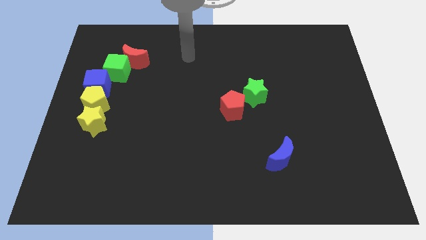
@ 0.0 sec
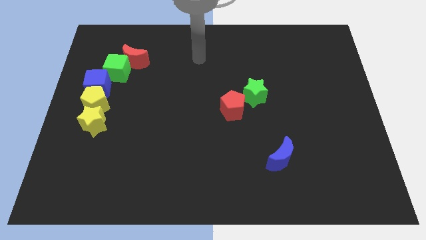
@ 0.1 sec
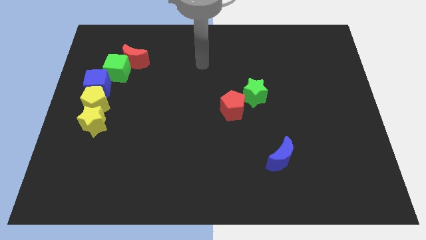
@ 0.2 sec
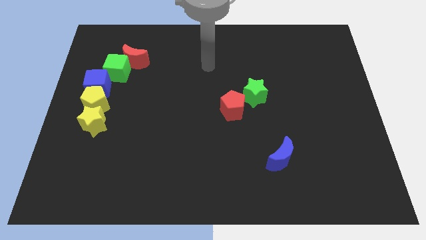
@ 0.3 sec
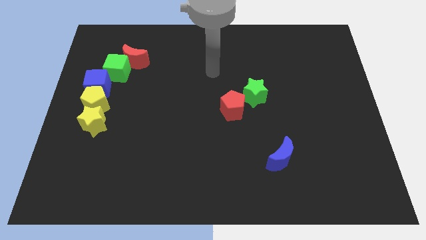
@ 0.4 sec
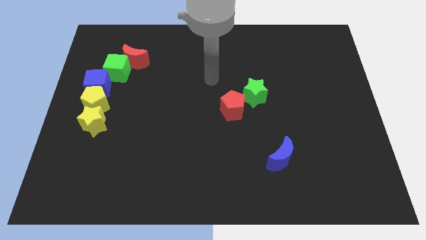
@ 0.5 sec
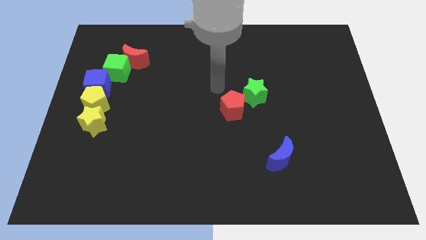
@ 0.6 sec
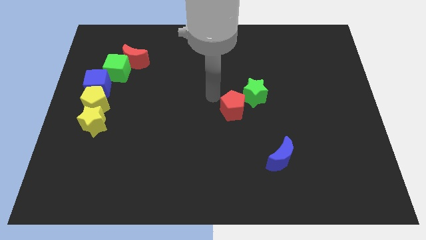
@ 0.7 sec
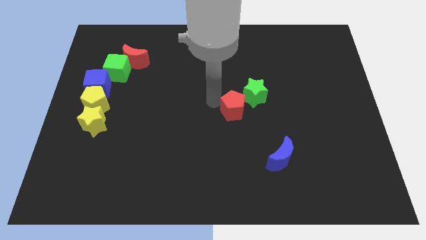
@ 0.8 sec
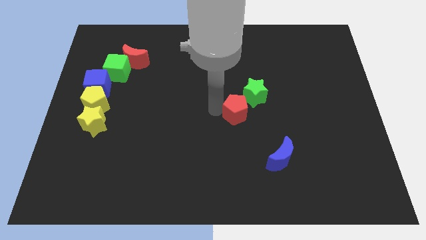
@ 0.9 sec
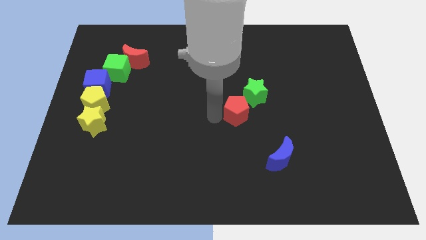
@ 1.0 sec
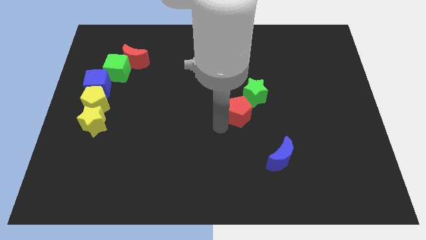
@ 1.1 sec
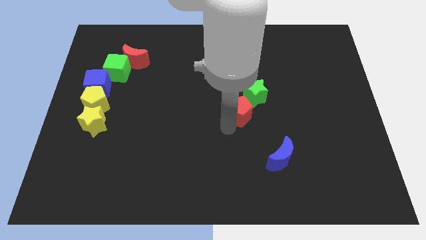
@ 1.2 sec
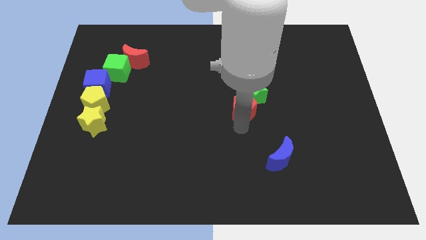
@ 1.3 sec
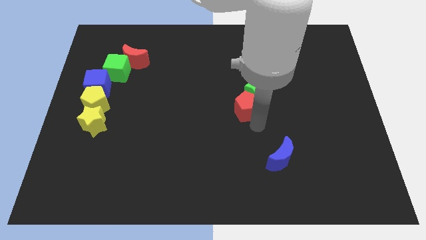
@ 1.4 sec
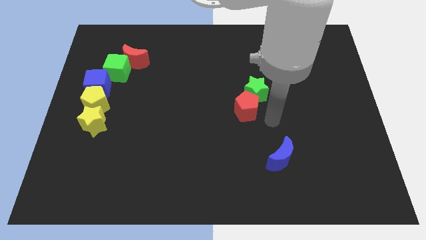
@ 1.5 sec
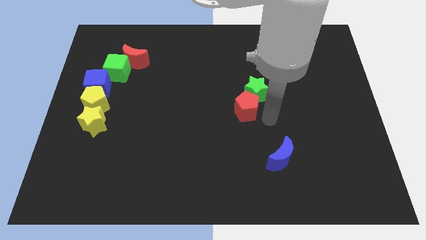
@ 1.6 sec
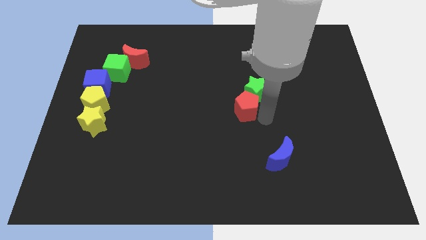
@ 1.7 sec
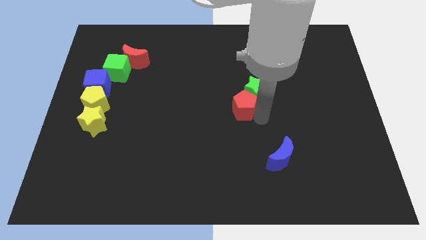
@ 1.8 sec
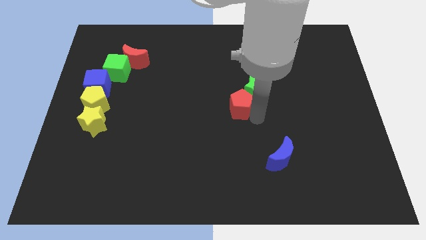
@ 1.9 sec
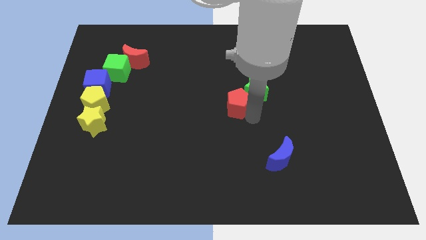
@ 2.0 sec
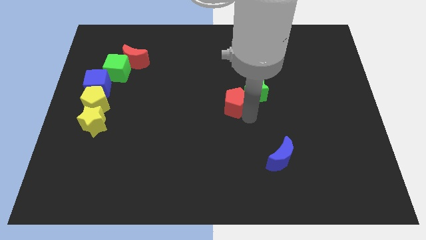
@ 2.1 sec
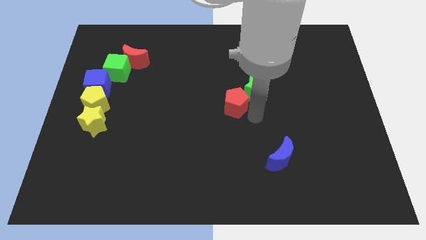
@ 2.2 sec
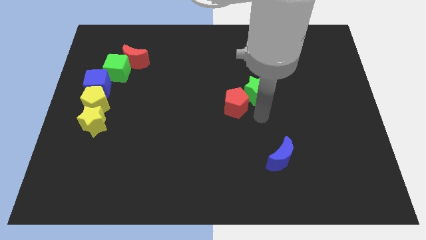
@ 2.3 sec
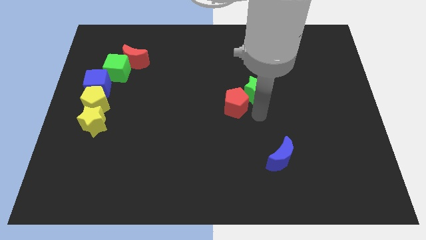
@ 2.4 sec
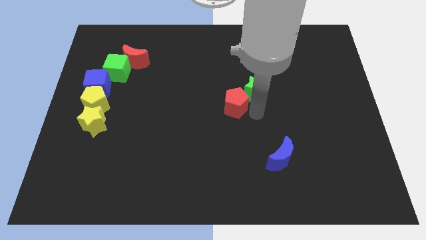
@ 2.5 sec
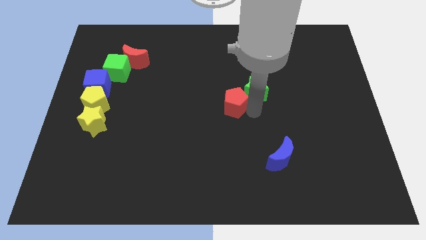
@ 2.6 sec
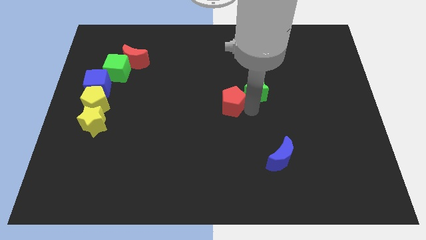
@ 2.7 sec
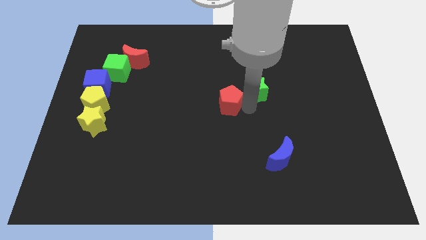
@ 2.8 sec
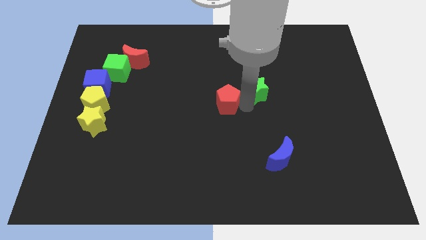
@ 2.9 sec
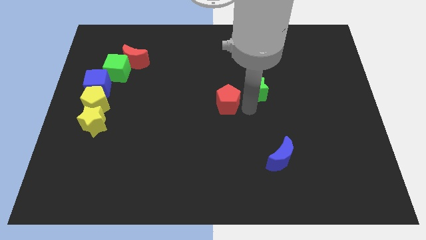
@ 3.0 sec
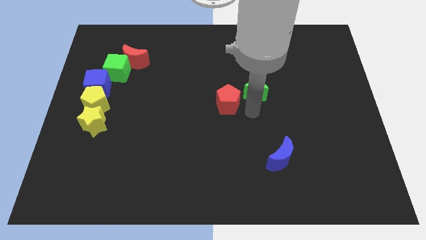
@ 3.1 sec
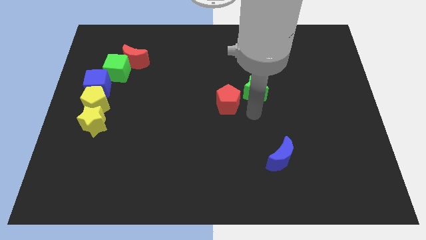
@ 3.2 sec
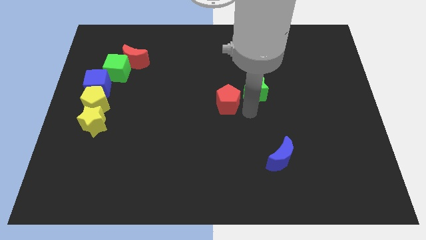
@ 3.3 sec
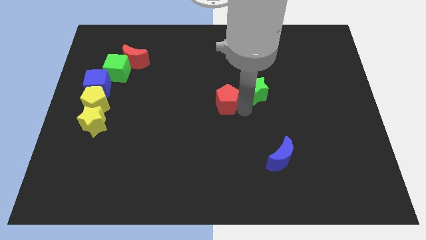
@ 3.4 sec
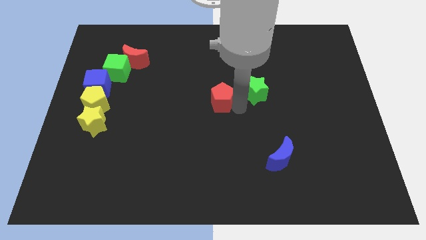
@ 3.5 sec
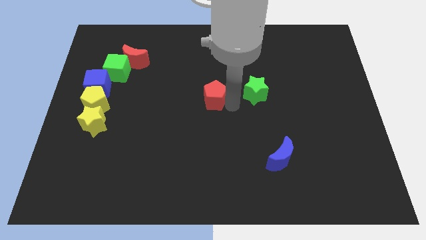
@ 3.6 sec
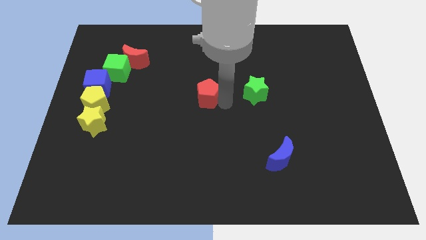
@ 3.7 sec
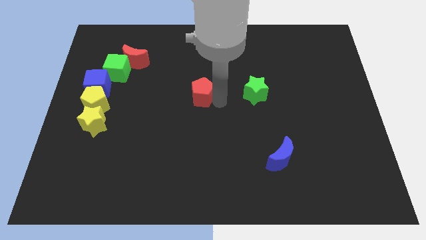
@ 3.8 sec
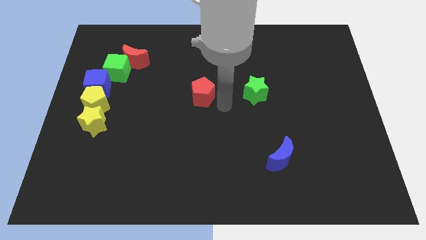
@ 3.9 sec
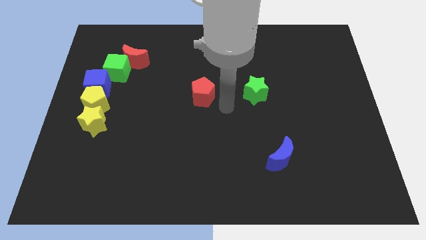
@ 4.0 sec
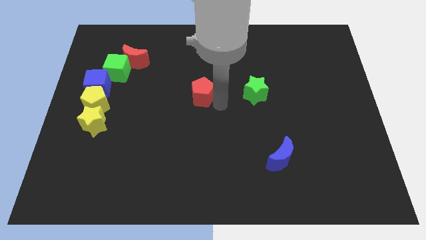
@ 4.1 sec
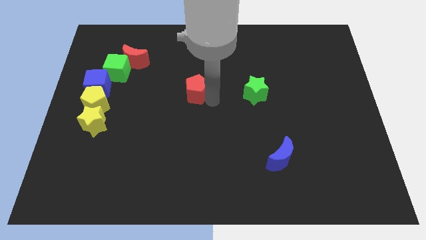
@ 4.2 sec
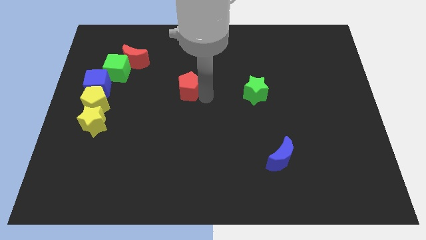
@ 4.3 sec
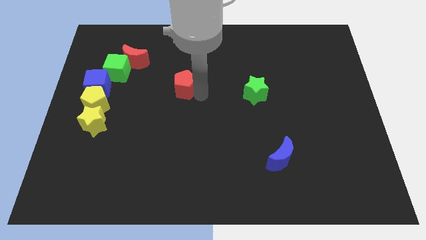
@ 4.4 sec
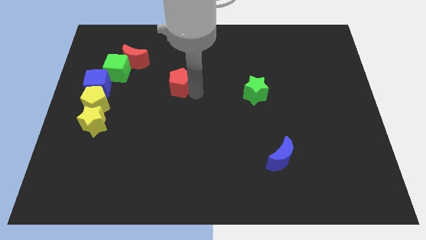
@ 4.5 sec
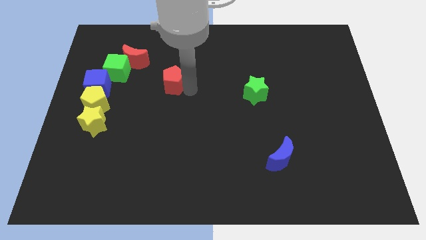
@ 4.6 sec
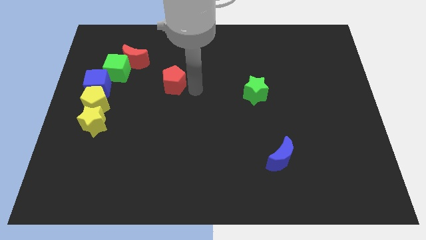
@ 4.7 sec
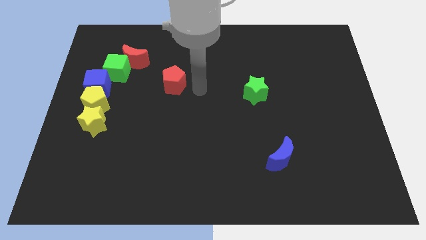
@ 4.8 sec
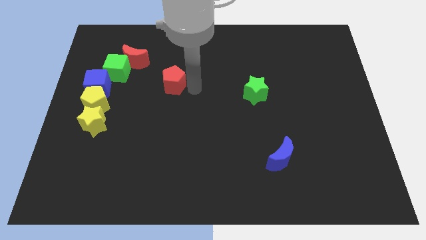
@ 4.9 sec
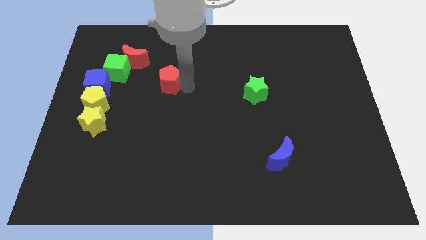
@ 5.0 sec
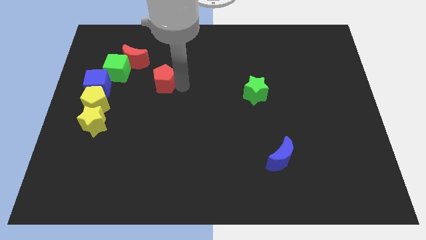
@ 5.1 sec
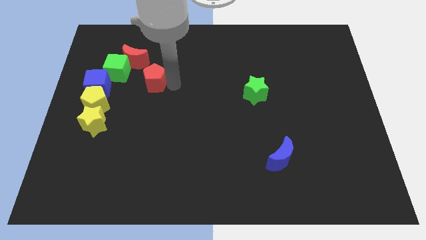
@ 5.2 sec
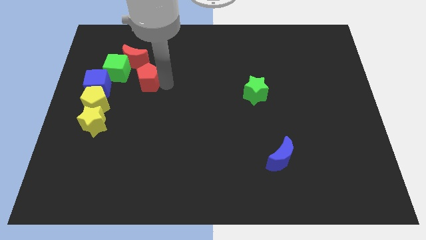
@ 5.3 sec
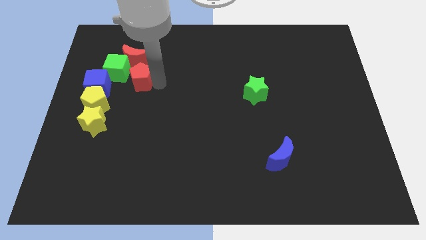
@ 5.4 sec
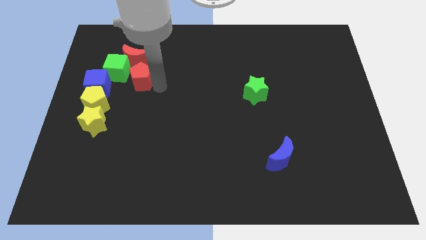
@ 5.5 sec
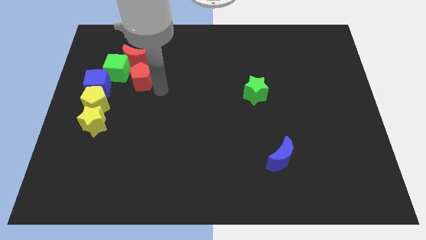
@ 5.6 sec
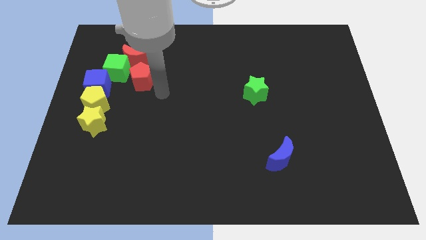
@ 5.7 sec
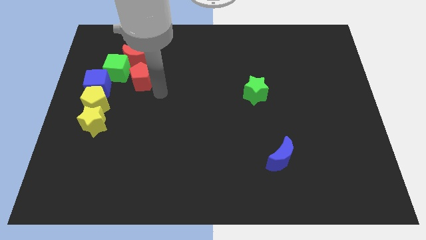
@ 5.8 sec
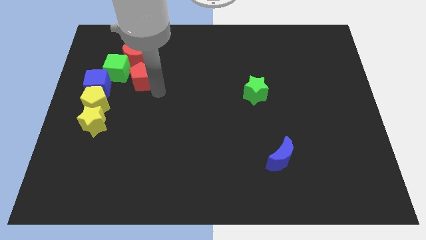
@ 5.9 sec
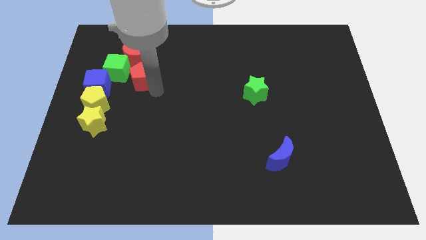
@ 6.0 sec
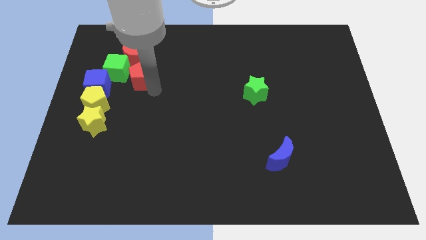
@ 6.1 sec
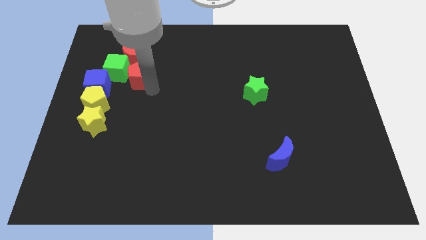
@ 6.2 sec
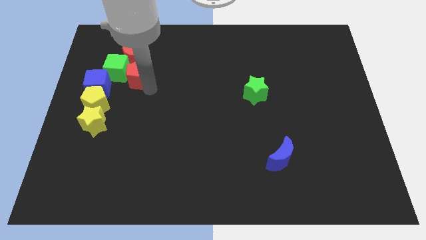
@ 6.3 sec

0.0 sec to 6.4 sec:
slide the red pentagon next to the green cube

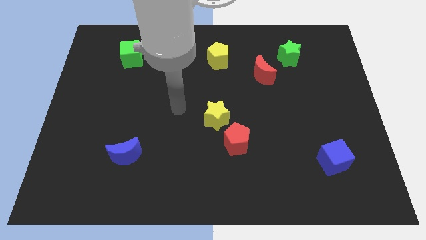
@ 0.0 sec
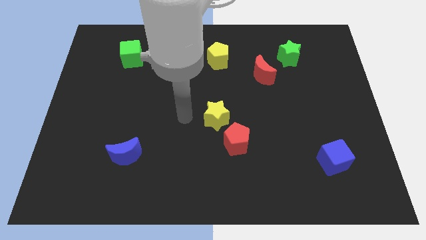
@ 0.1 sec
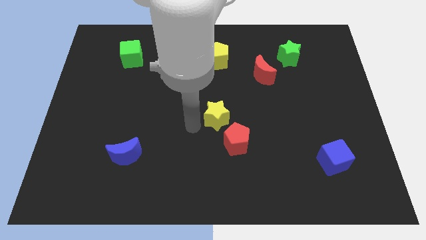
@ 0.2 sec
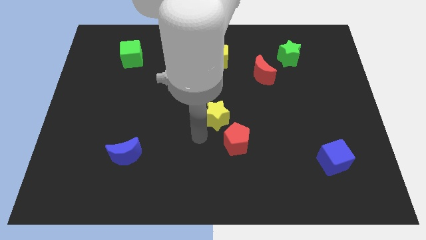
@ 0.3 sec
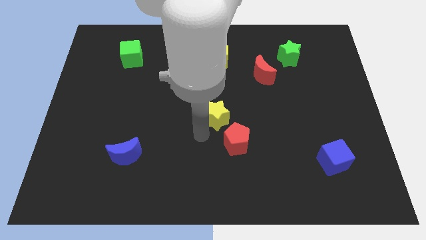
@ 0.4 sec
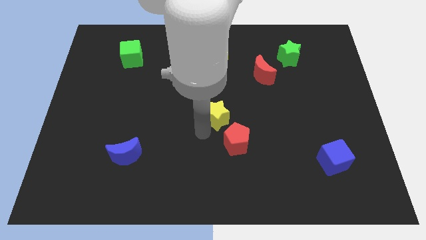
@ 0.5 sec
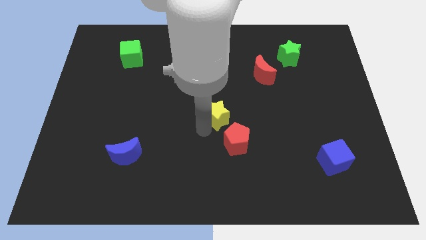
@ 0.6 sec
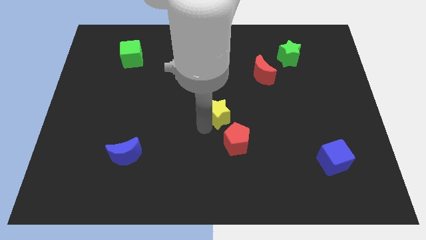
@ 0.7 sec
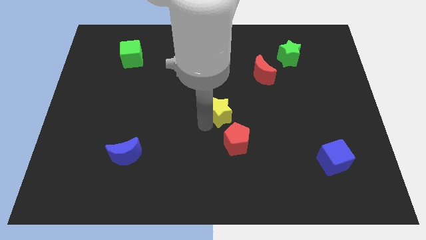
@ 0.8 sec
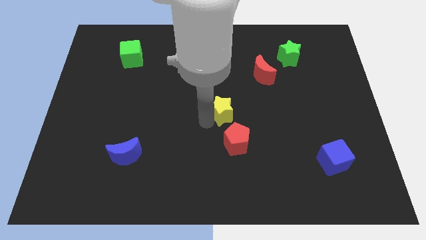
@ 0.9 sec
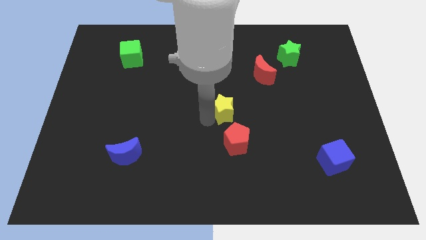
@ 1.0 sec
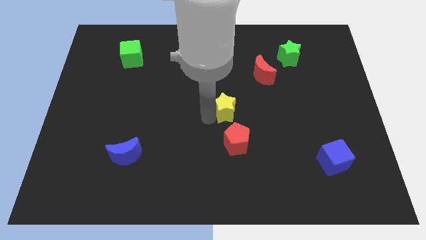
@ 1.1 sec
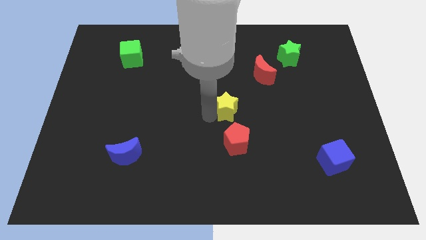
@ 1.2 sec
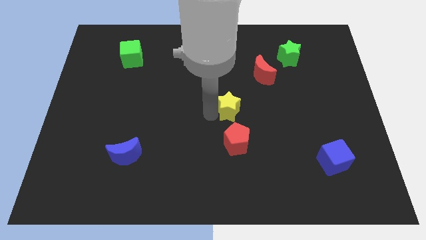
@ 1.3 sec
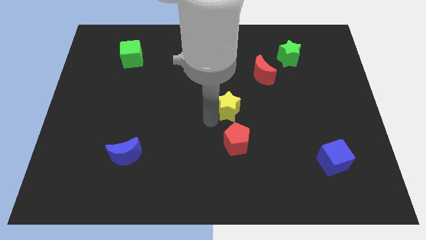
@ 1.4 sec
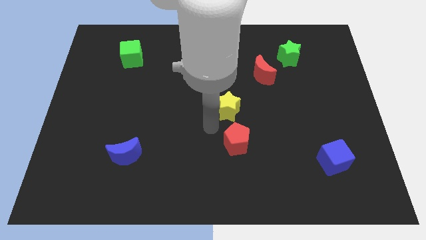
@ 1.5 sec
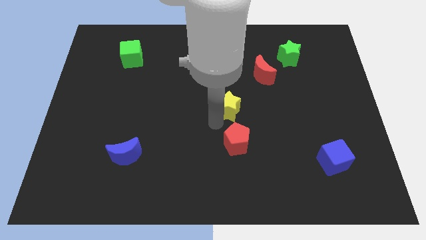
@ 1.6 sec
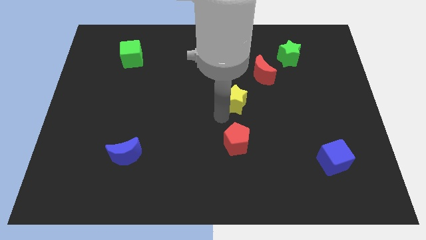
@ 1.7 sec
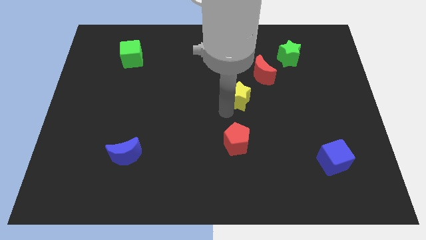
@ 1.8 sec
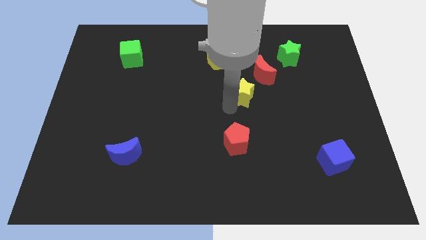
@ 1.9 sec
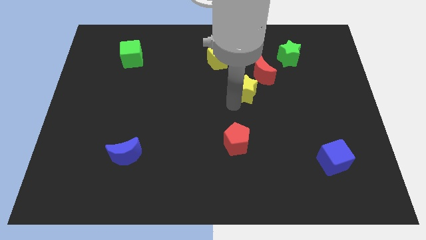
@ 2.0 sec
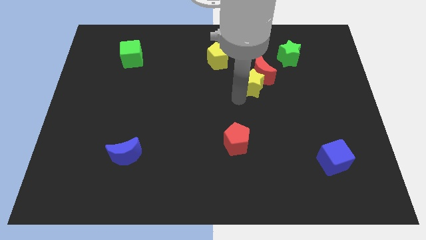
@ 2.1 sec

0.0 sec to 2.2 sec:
push the yellow star to the red moon
